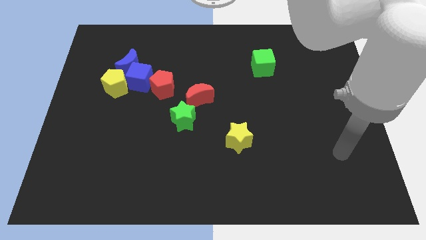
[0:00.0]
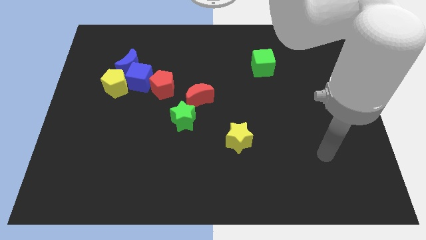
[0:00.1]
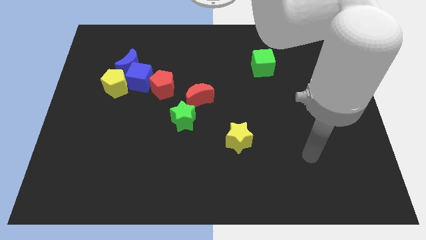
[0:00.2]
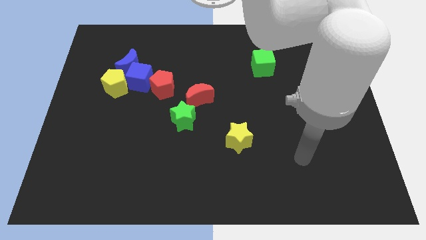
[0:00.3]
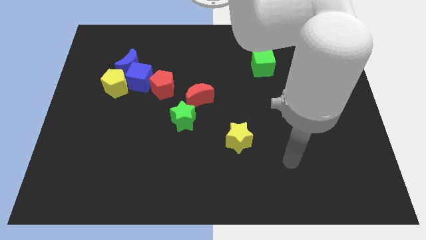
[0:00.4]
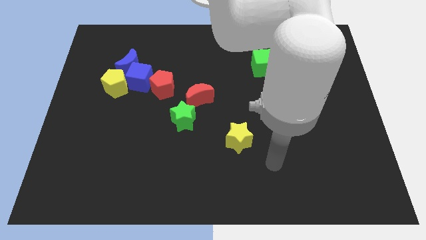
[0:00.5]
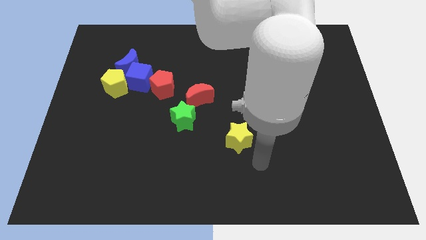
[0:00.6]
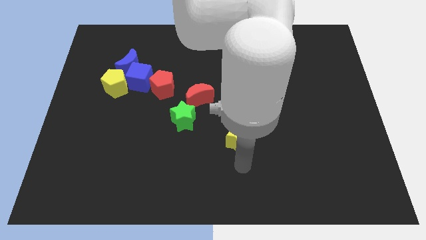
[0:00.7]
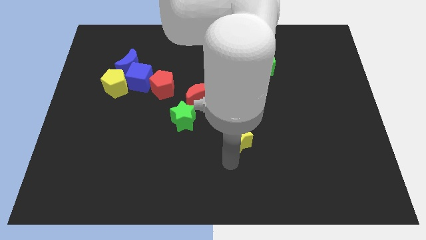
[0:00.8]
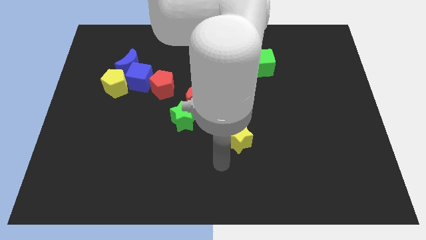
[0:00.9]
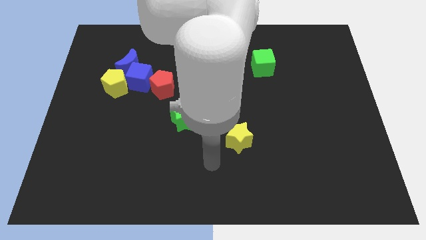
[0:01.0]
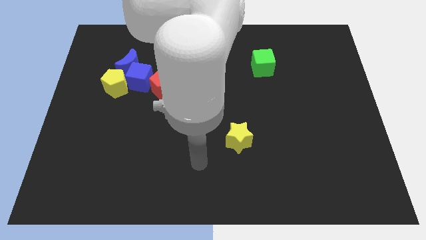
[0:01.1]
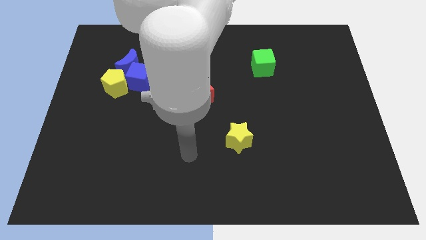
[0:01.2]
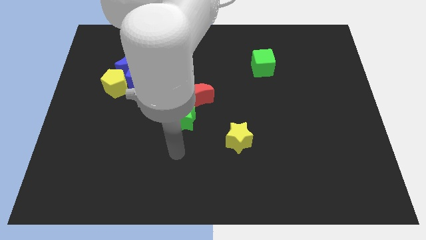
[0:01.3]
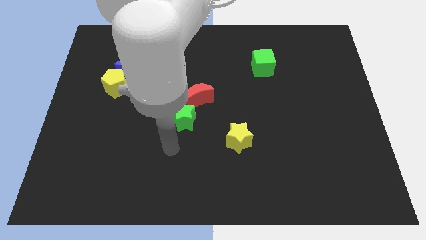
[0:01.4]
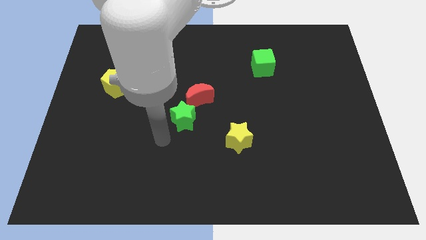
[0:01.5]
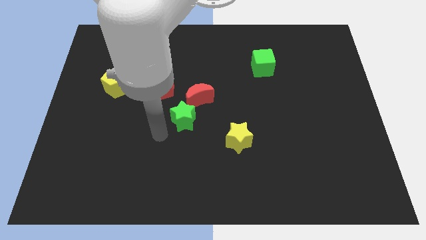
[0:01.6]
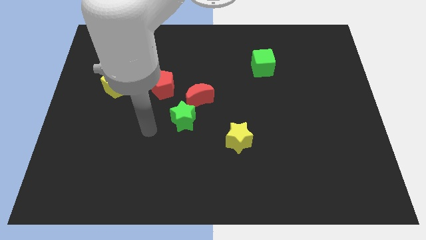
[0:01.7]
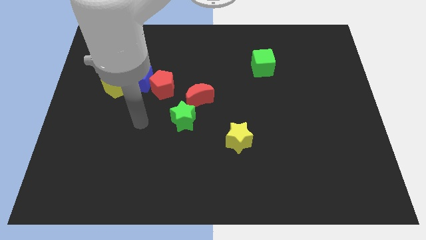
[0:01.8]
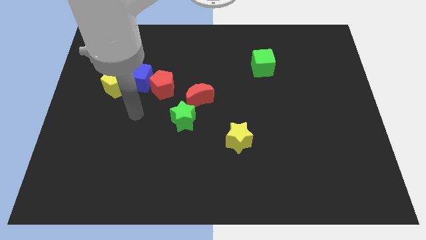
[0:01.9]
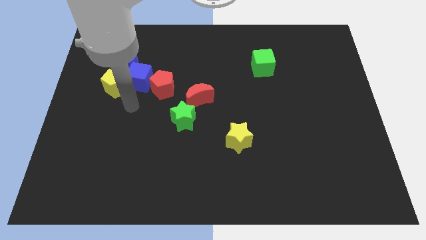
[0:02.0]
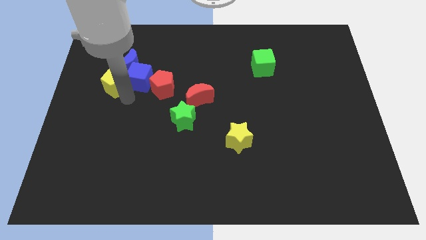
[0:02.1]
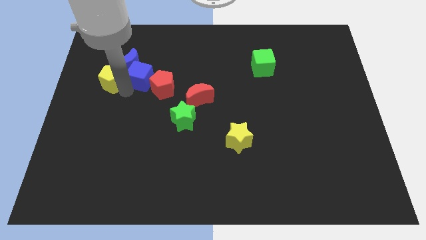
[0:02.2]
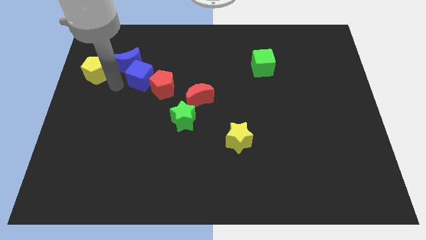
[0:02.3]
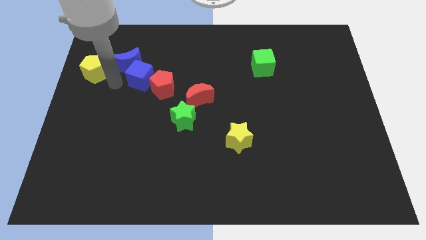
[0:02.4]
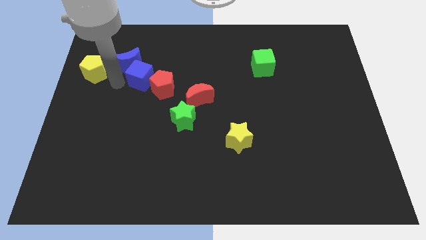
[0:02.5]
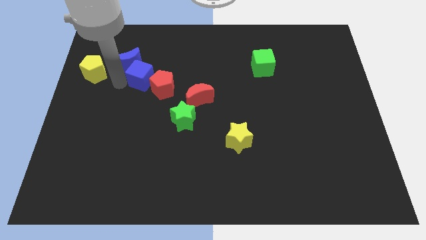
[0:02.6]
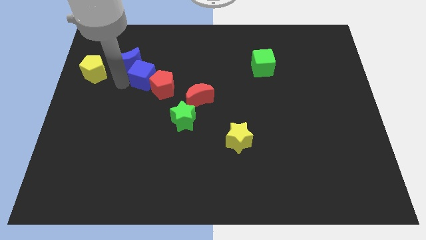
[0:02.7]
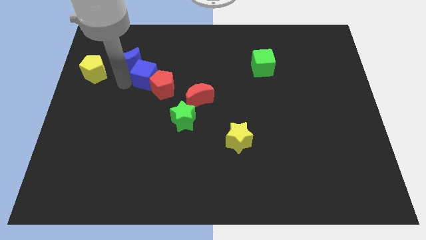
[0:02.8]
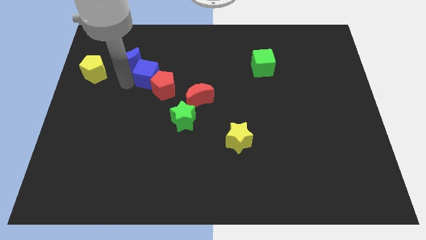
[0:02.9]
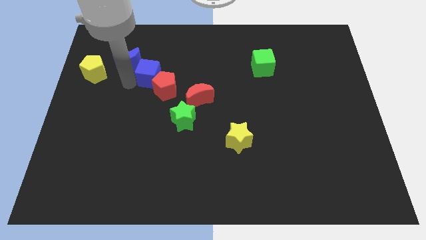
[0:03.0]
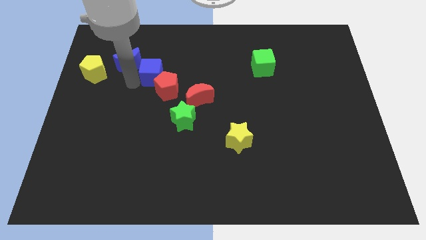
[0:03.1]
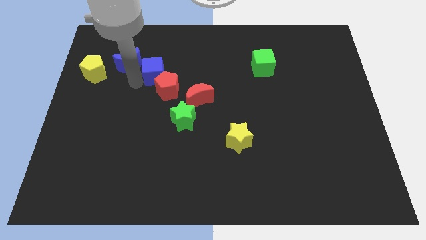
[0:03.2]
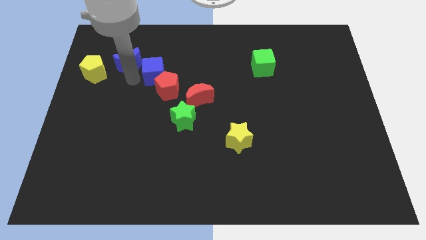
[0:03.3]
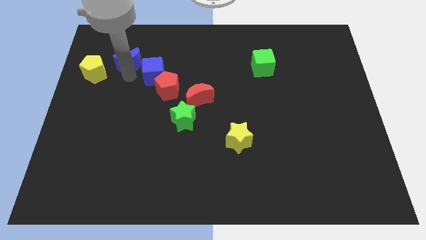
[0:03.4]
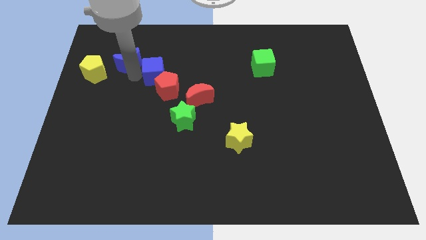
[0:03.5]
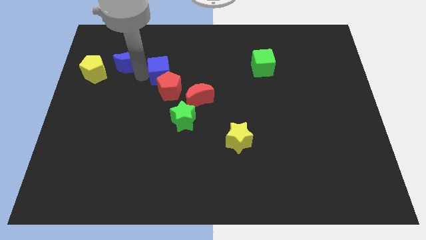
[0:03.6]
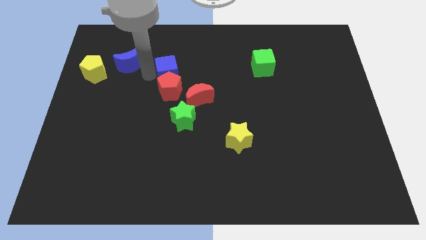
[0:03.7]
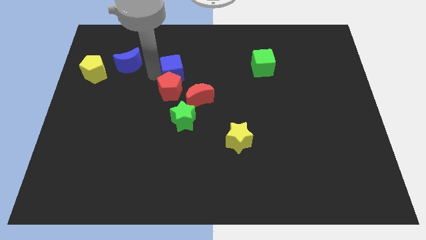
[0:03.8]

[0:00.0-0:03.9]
move the blue cube away from the blue moon, yellow pentagon, and red pentagon

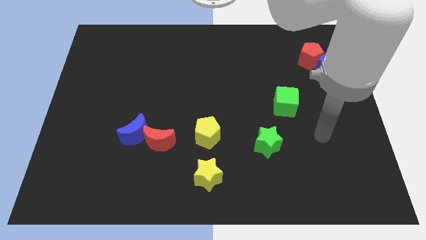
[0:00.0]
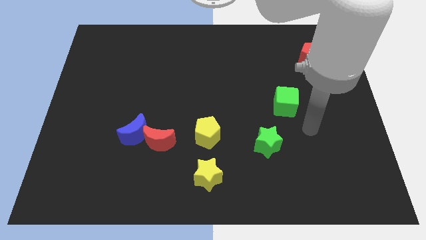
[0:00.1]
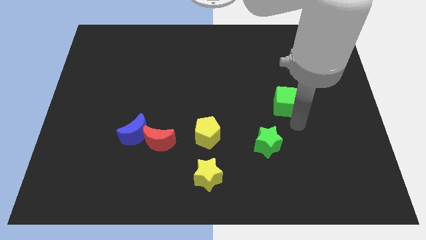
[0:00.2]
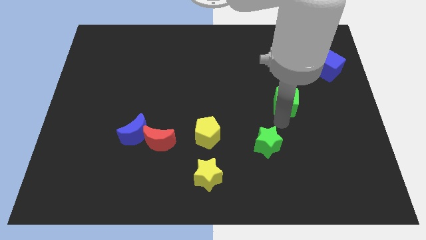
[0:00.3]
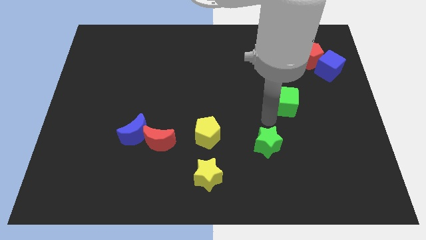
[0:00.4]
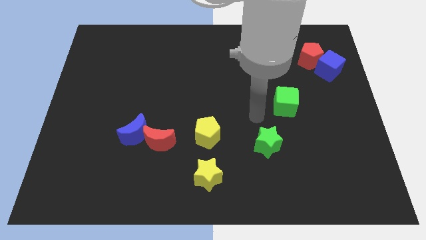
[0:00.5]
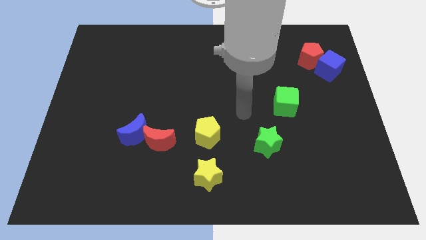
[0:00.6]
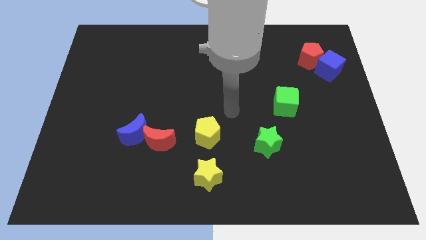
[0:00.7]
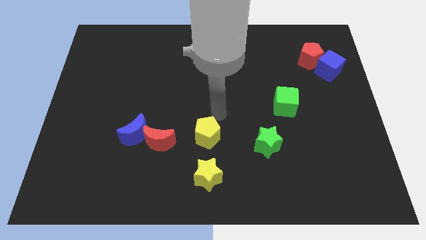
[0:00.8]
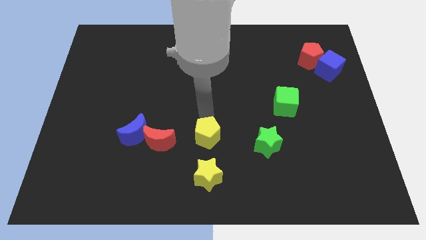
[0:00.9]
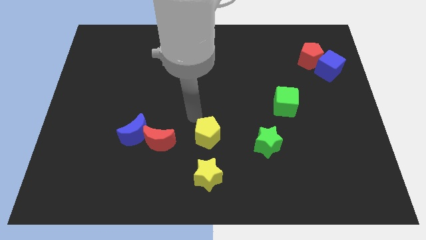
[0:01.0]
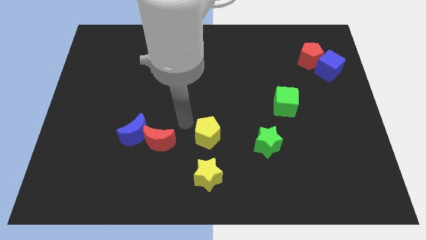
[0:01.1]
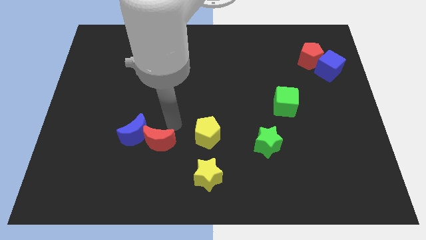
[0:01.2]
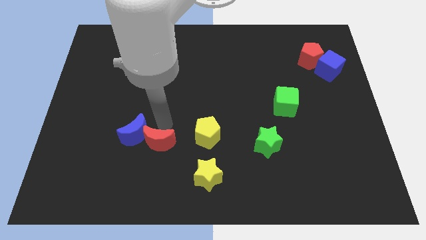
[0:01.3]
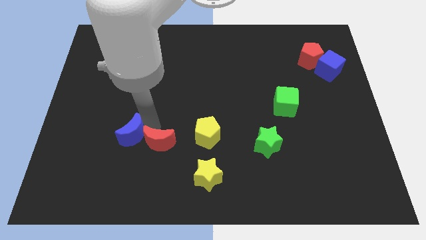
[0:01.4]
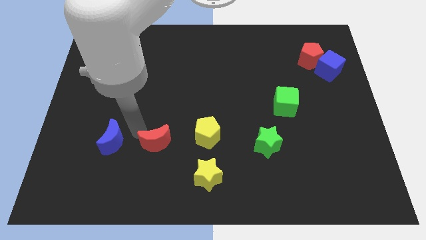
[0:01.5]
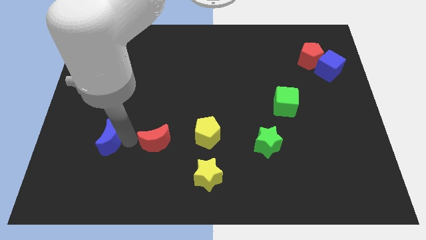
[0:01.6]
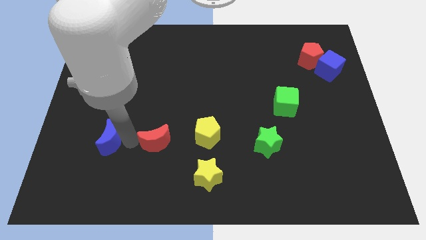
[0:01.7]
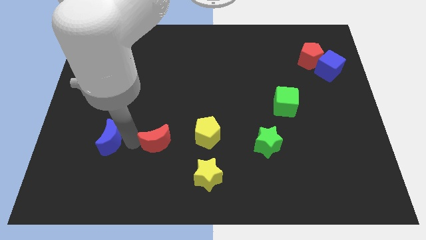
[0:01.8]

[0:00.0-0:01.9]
move the red moon away from the blue moon

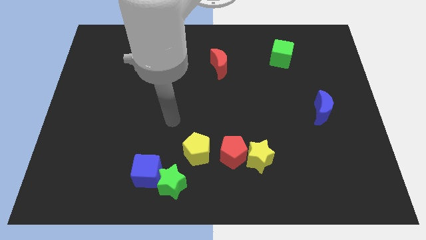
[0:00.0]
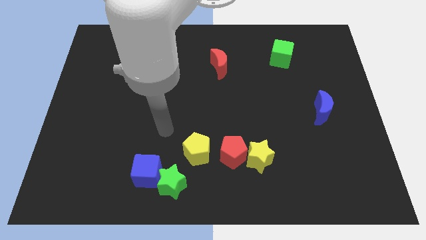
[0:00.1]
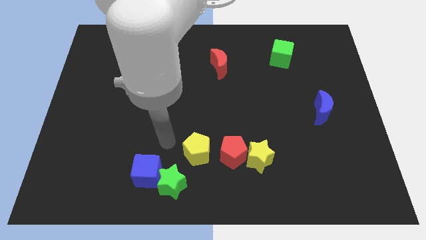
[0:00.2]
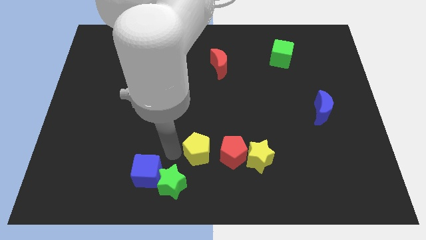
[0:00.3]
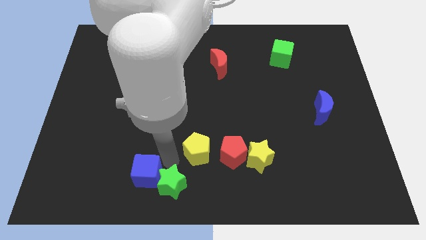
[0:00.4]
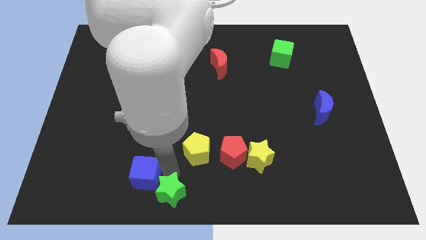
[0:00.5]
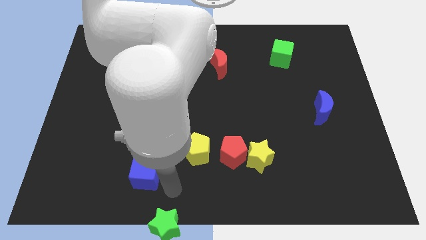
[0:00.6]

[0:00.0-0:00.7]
pull the blue cube apart from the green star

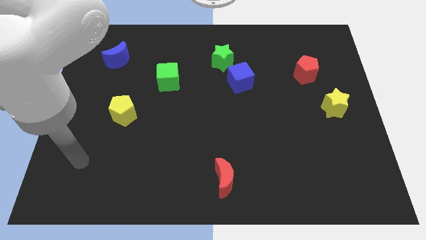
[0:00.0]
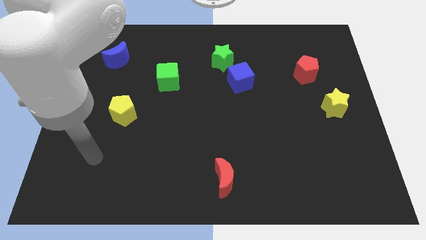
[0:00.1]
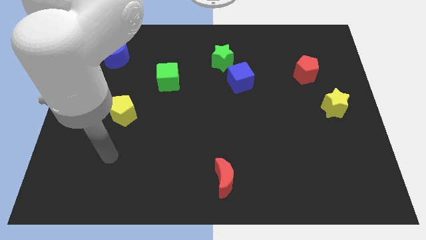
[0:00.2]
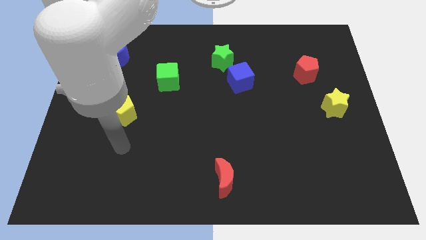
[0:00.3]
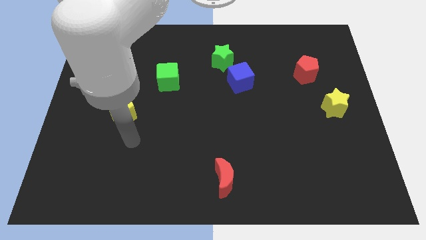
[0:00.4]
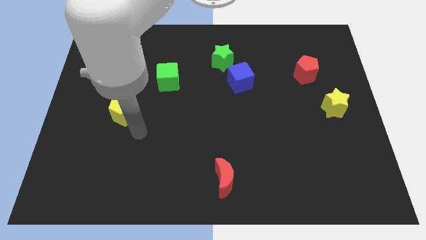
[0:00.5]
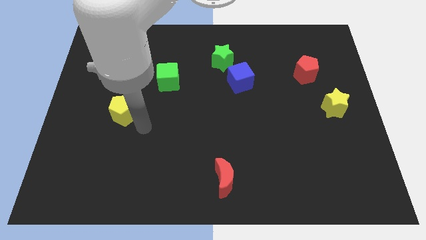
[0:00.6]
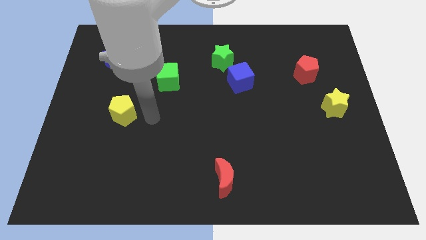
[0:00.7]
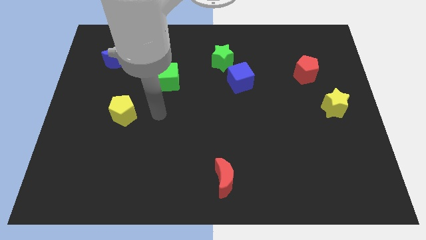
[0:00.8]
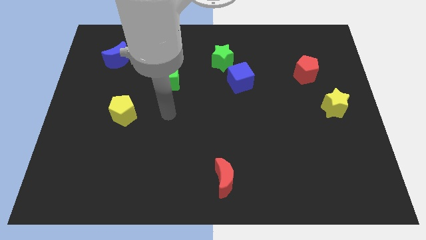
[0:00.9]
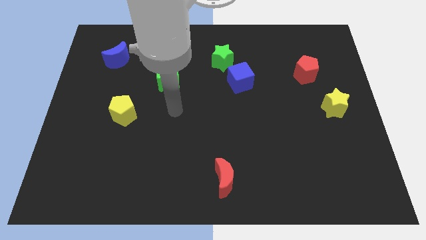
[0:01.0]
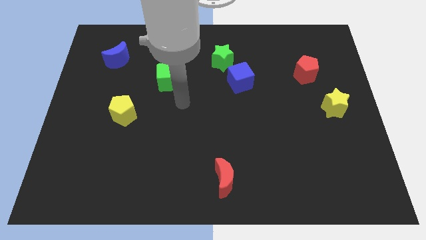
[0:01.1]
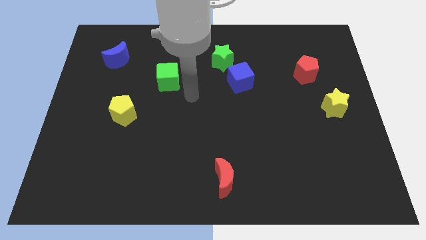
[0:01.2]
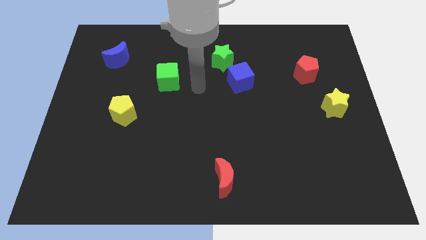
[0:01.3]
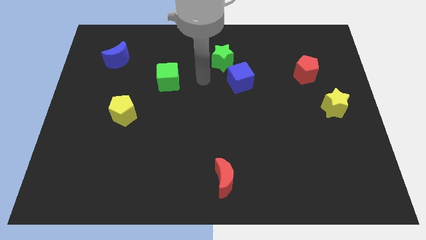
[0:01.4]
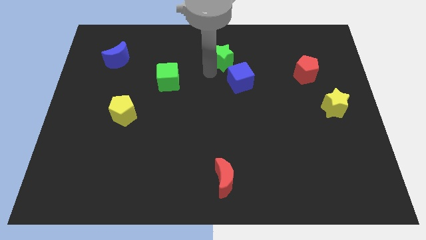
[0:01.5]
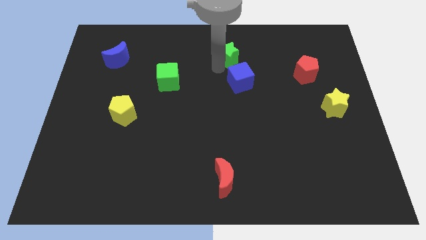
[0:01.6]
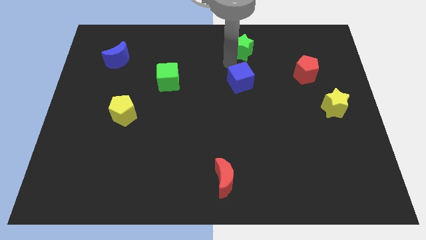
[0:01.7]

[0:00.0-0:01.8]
separate the blue cube from the green star

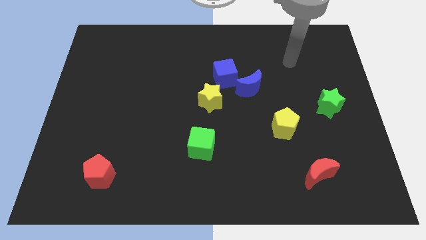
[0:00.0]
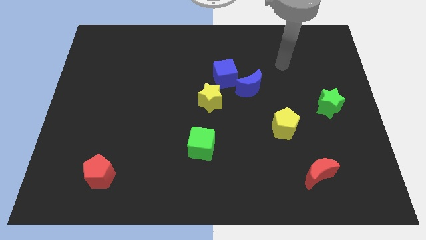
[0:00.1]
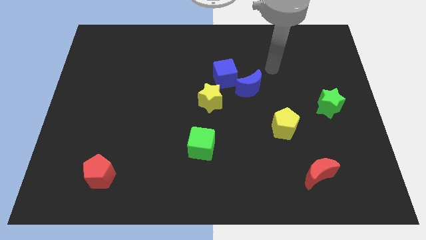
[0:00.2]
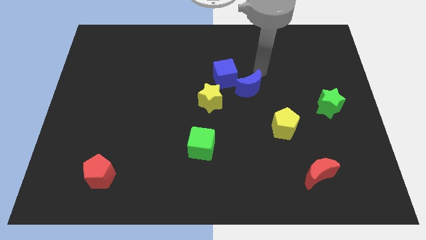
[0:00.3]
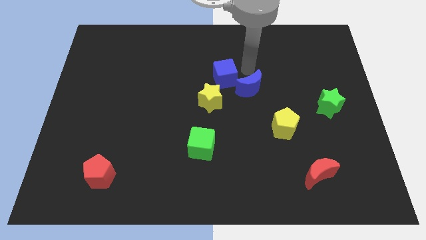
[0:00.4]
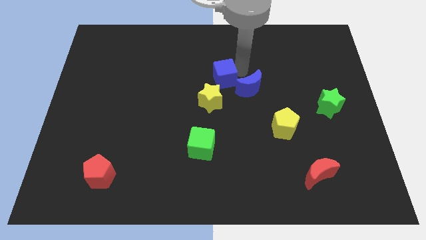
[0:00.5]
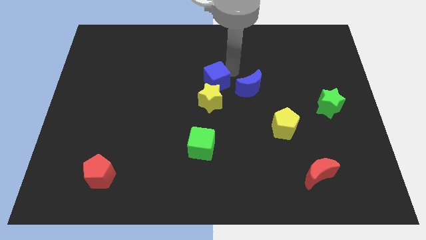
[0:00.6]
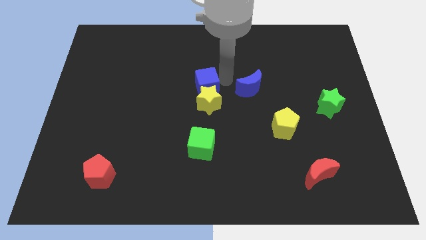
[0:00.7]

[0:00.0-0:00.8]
move the blue moon away from the blue cube

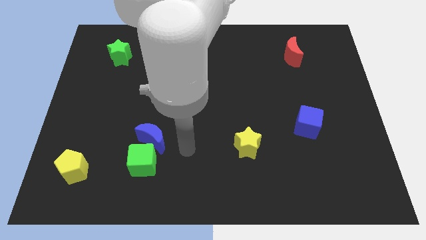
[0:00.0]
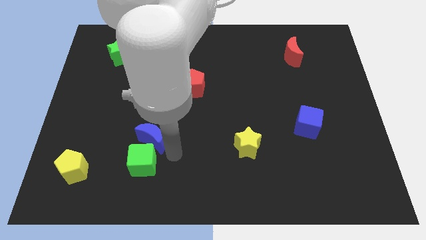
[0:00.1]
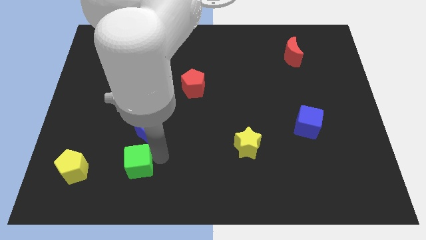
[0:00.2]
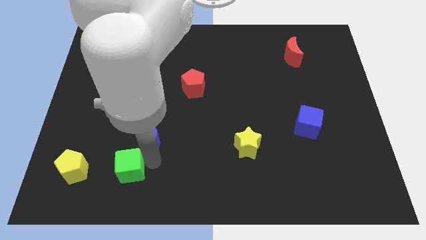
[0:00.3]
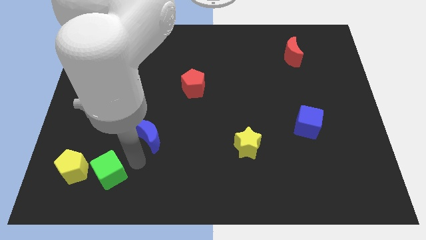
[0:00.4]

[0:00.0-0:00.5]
separate the blue moon from the green cube
